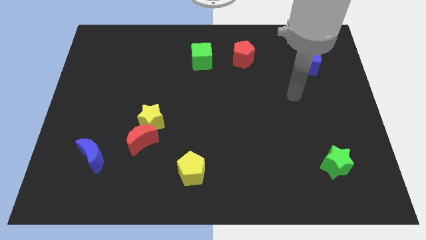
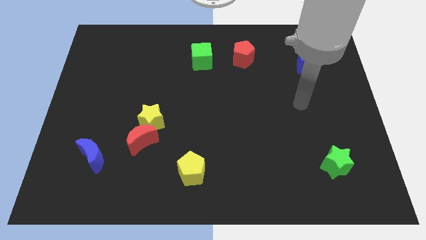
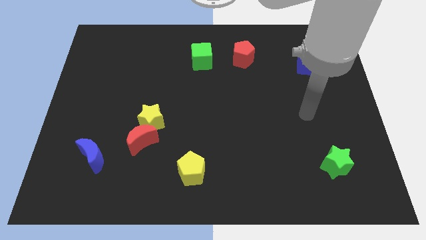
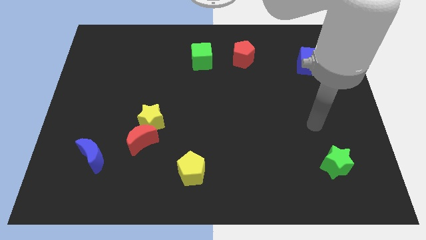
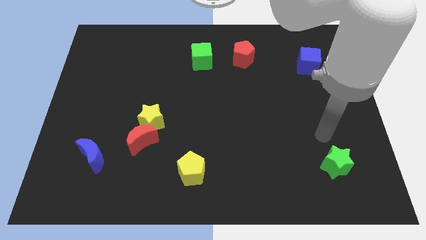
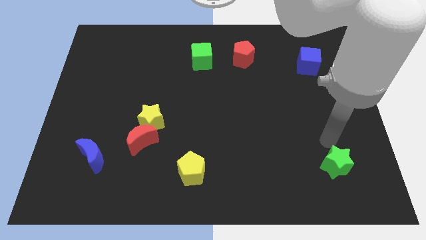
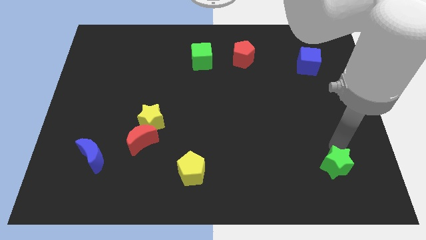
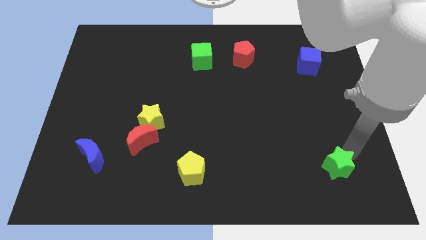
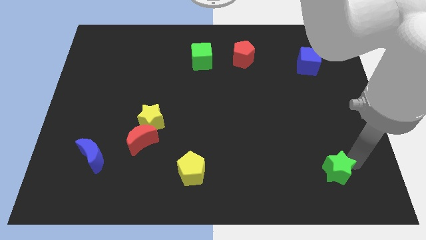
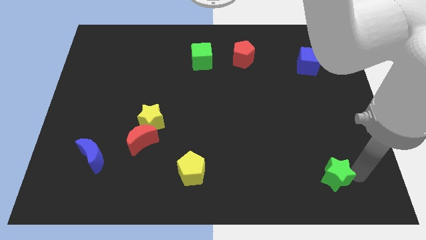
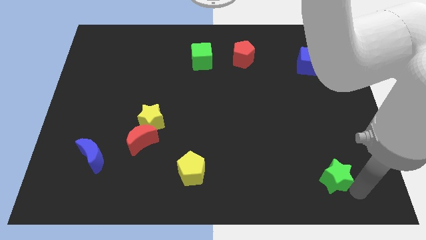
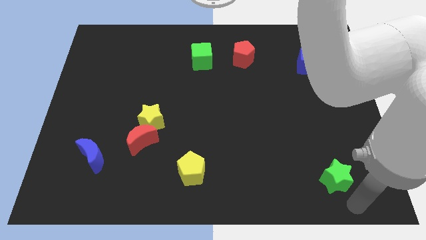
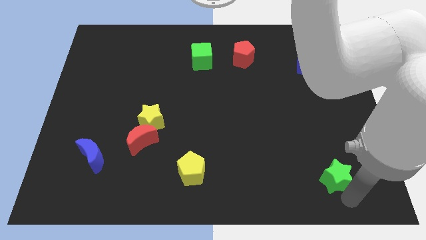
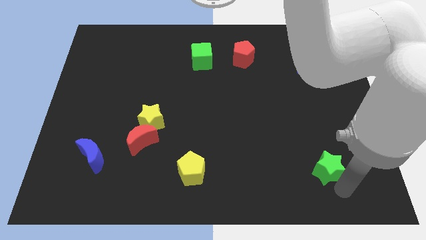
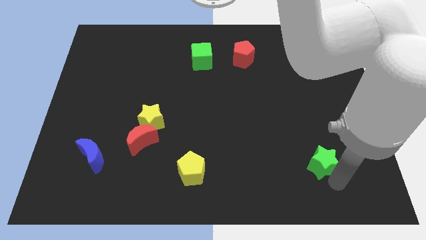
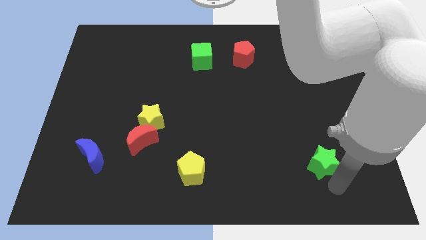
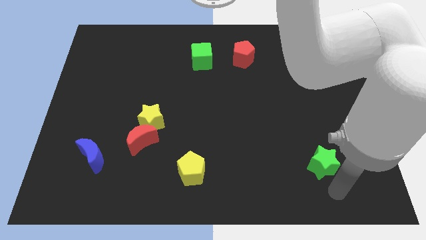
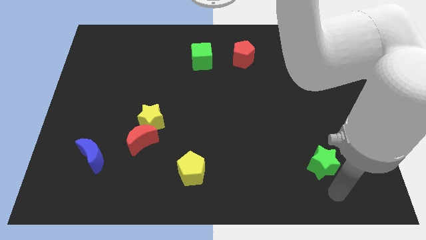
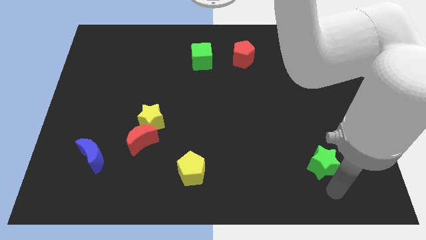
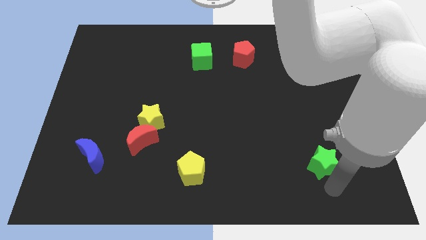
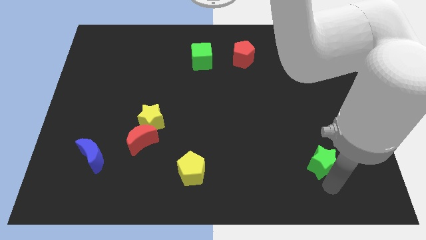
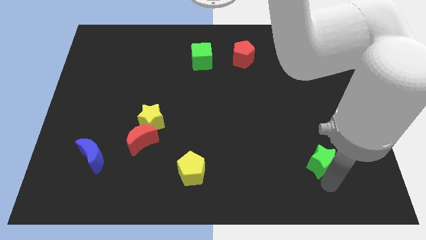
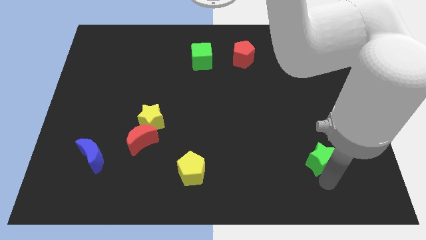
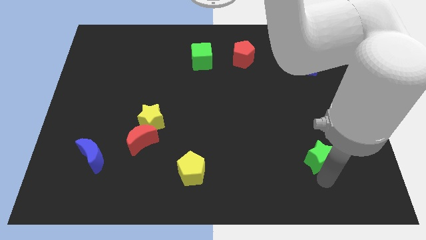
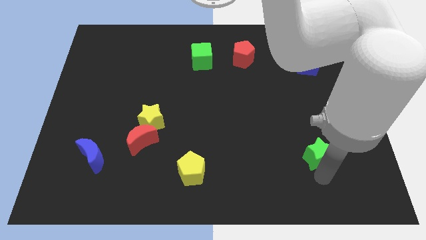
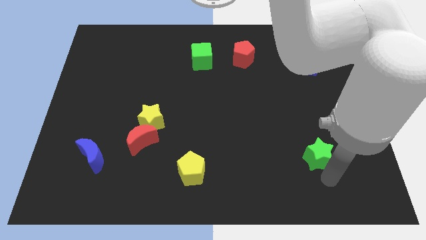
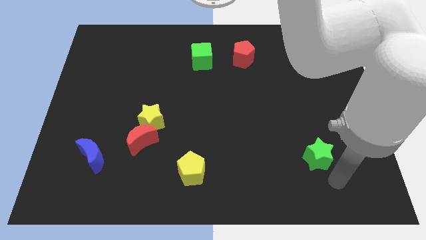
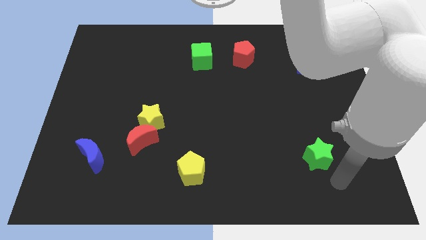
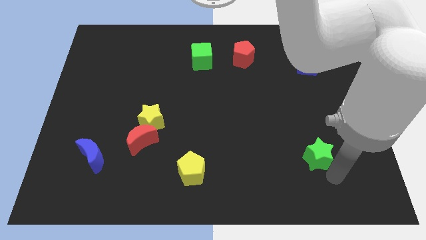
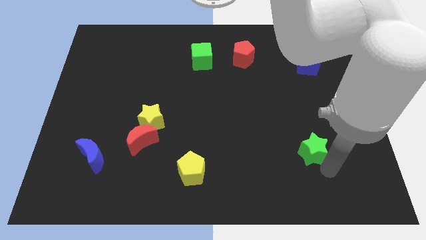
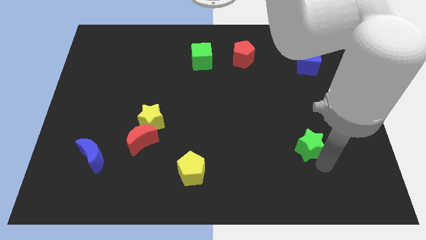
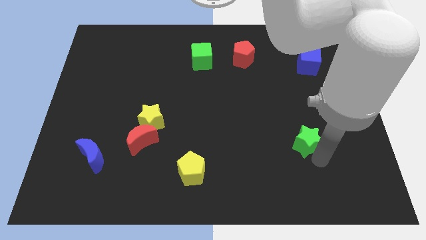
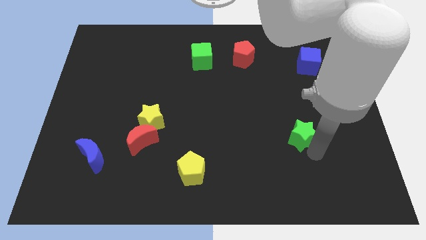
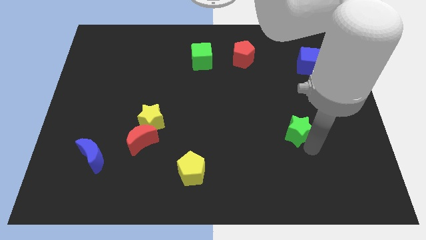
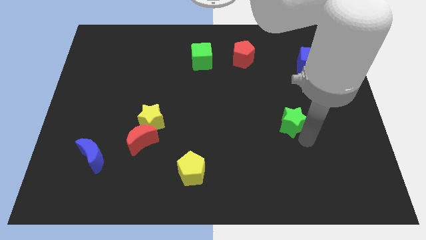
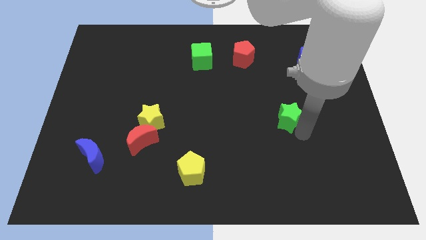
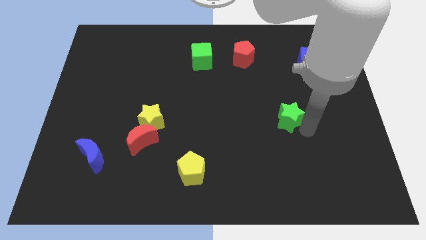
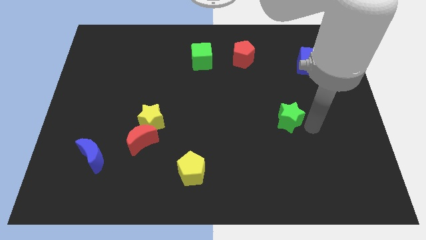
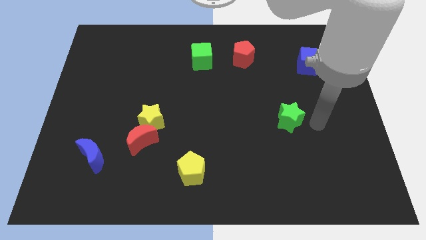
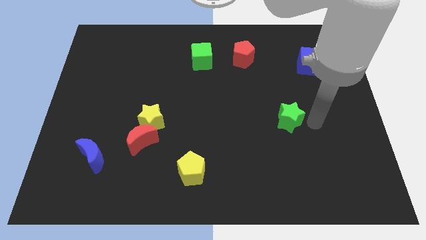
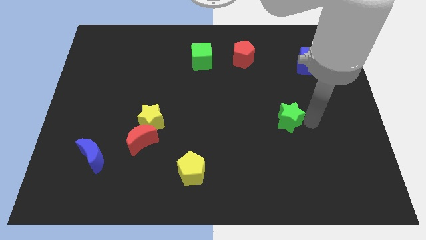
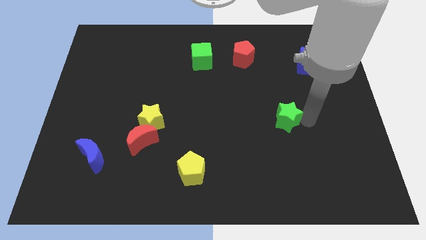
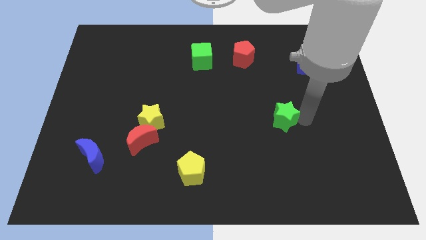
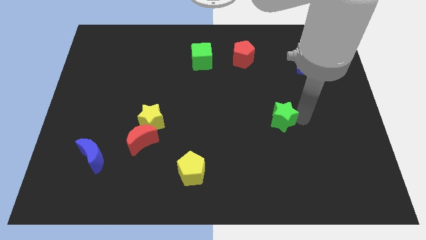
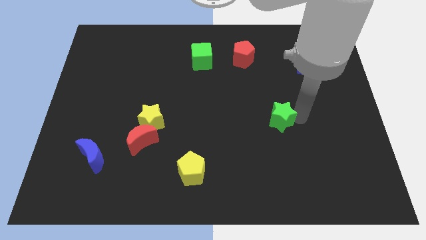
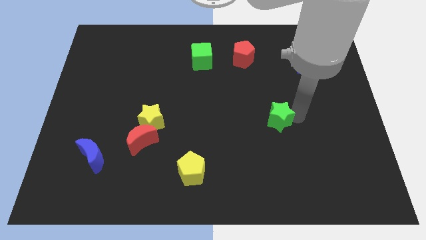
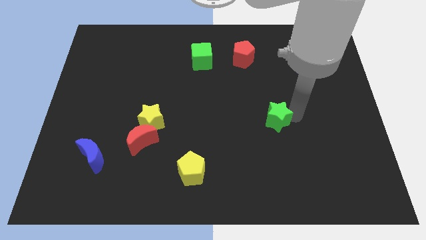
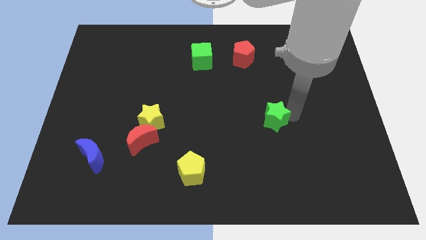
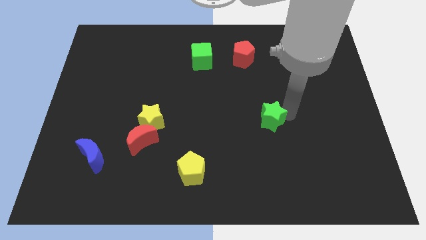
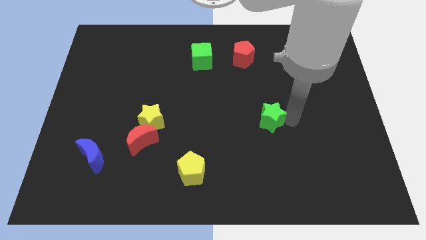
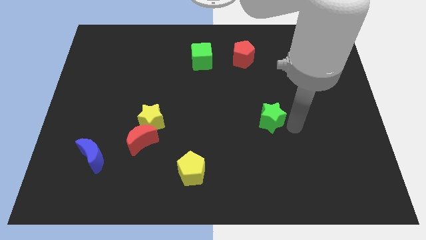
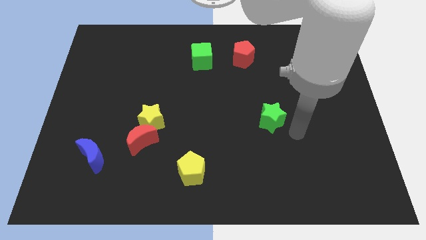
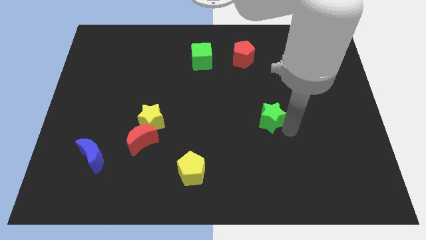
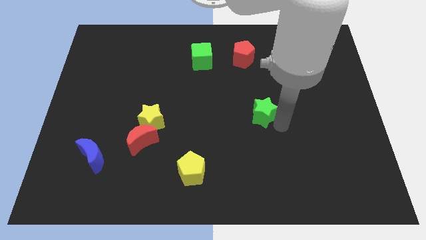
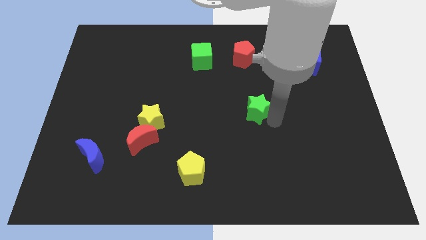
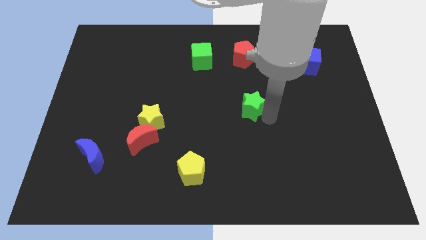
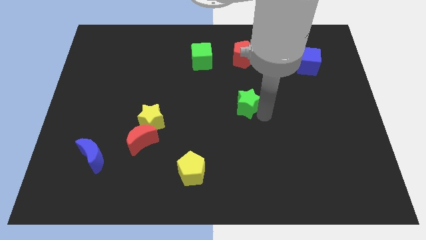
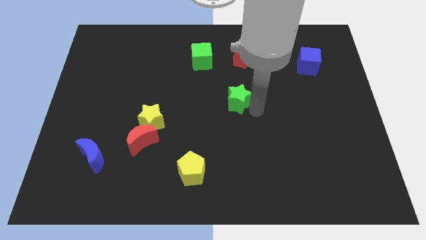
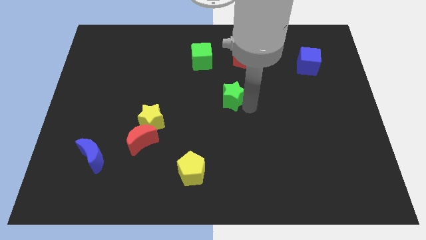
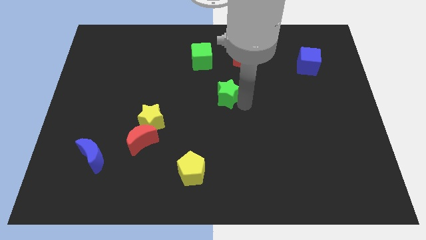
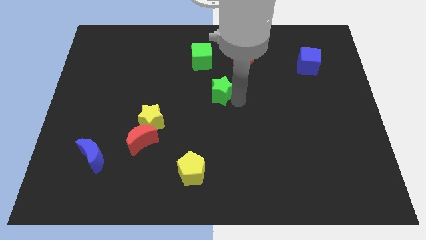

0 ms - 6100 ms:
slide the green star to the bottom side of the green cube

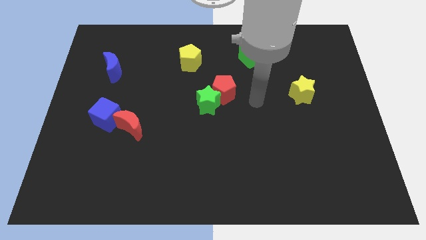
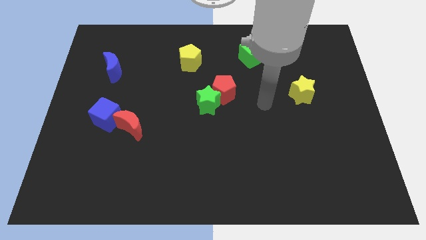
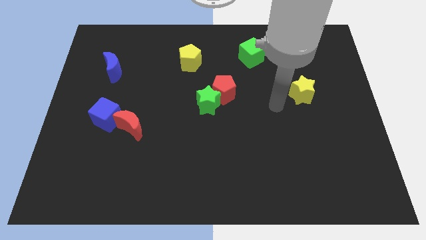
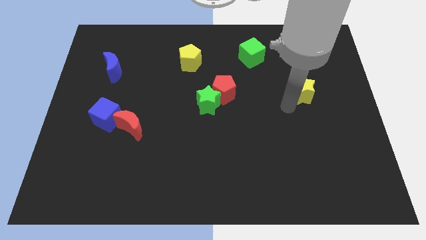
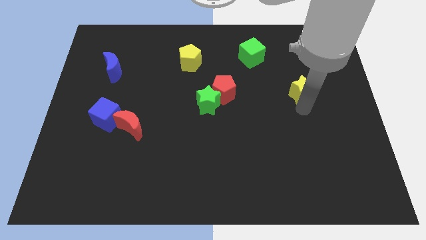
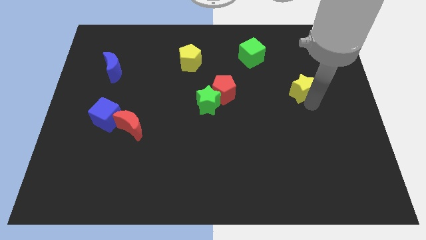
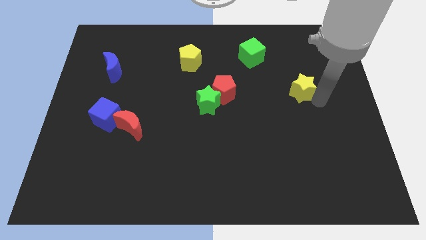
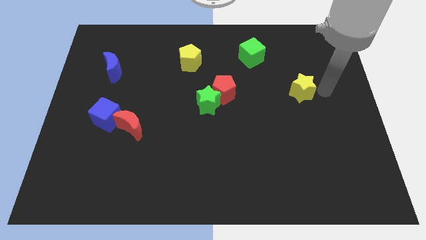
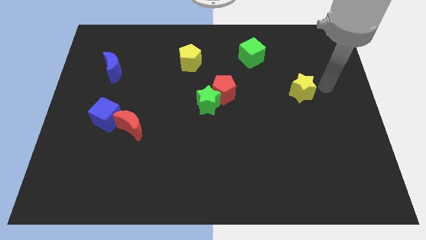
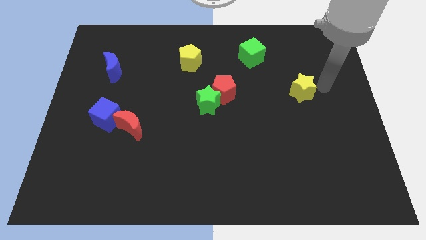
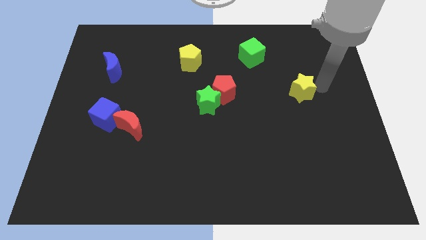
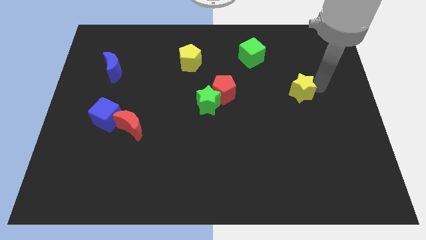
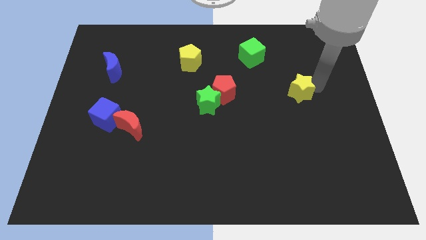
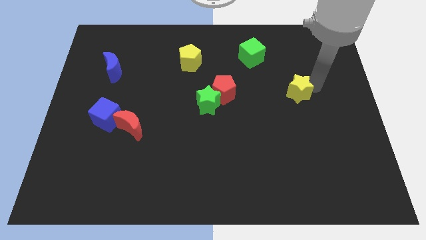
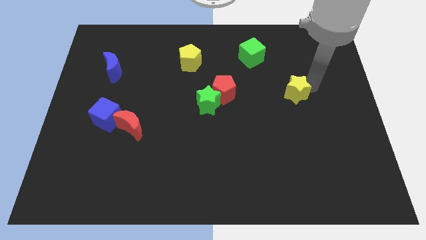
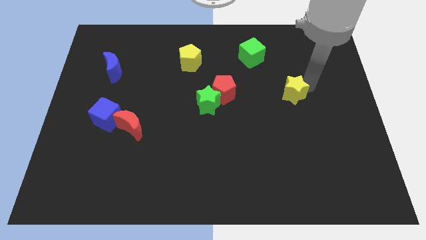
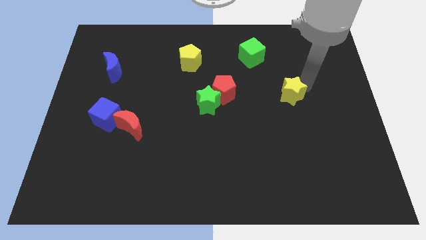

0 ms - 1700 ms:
put the yellow star to the right of the red pentagon
